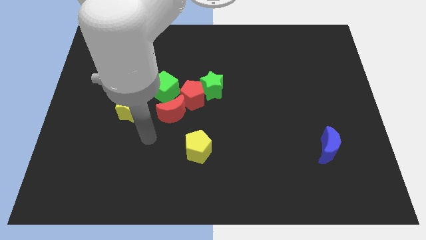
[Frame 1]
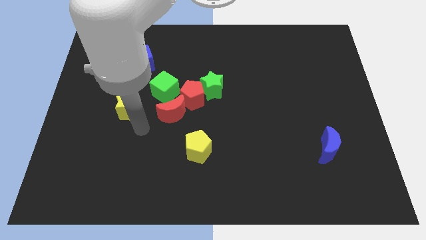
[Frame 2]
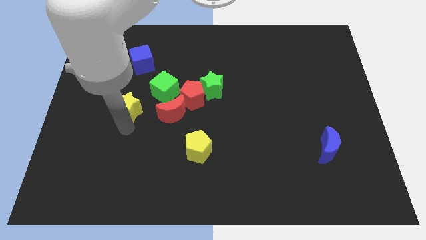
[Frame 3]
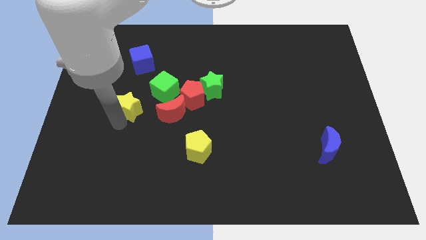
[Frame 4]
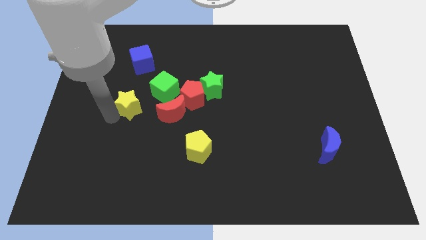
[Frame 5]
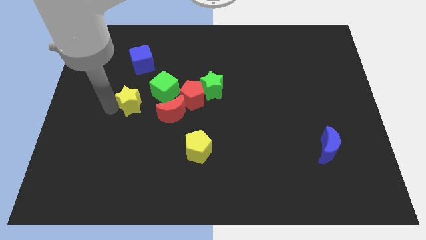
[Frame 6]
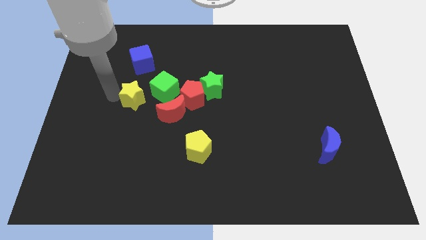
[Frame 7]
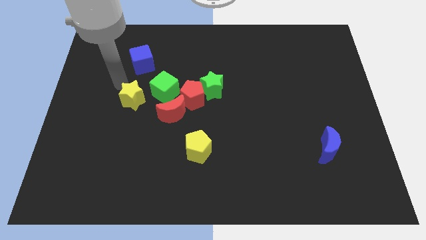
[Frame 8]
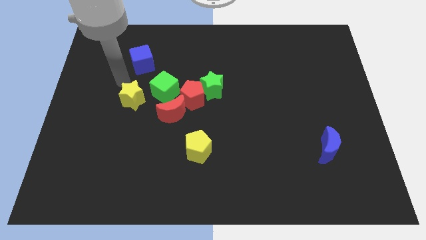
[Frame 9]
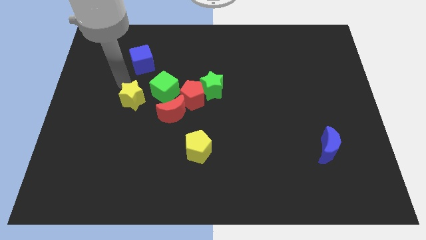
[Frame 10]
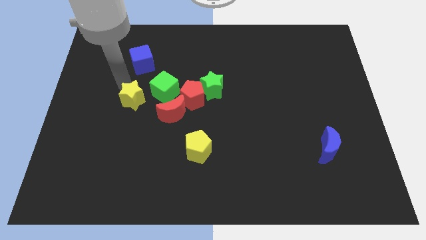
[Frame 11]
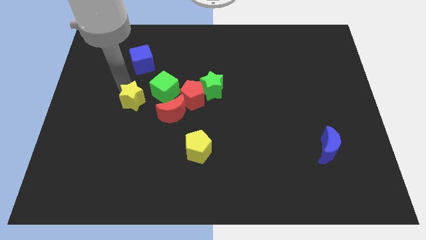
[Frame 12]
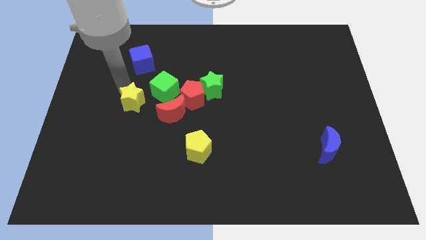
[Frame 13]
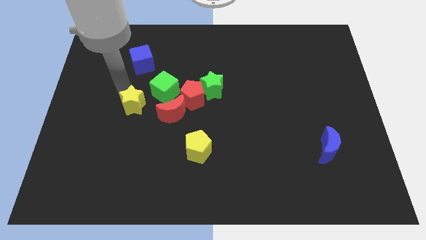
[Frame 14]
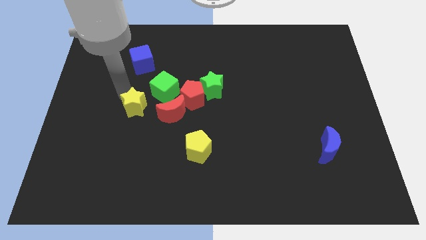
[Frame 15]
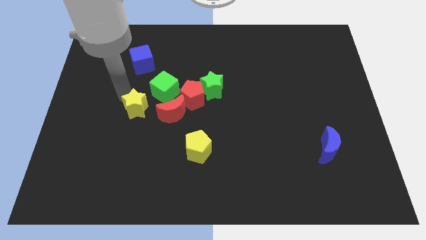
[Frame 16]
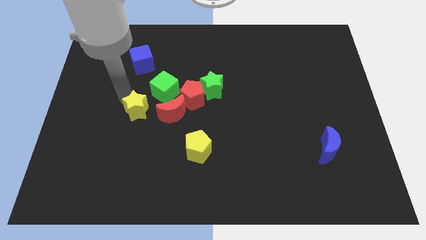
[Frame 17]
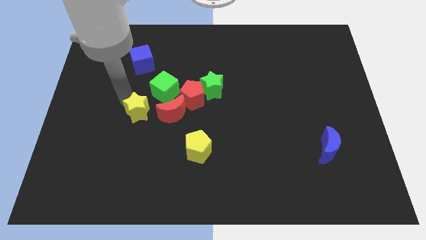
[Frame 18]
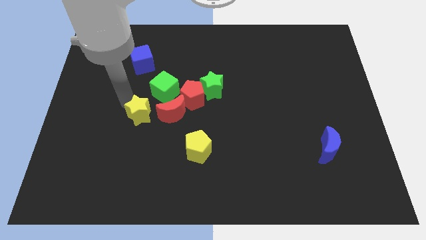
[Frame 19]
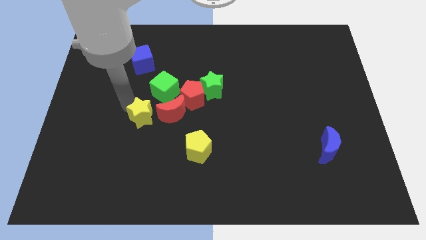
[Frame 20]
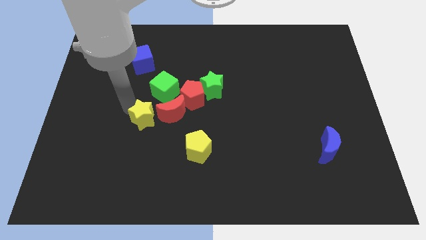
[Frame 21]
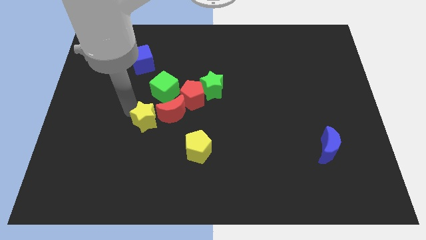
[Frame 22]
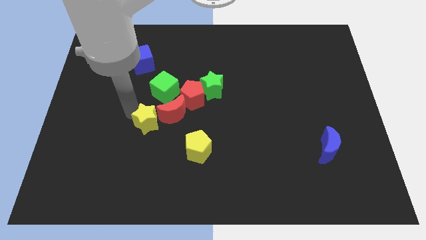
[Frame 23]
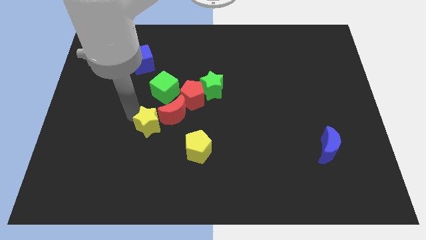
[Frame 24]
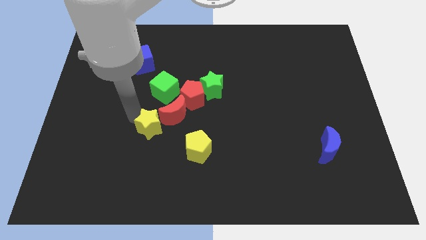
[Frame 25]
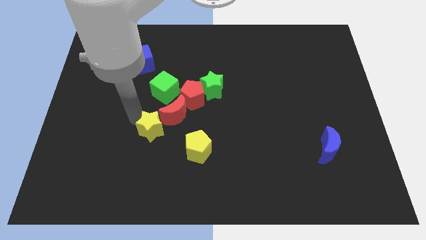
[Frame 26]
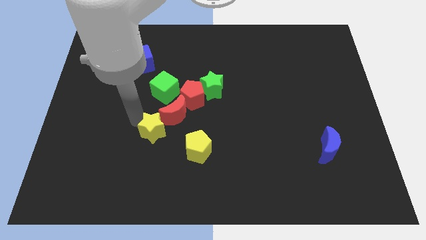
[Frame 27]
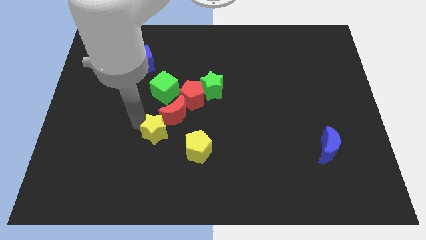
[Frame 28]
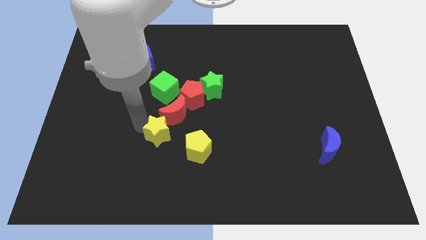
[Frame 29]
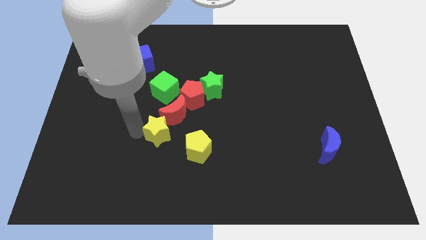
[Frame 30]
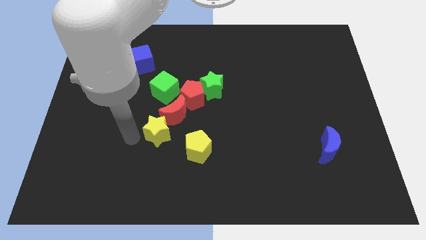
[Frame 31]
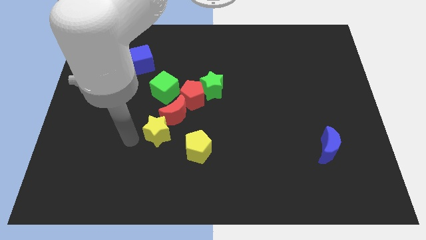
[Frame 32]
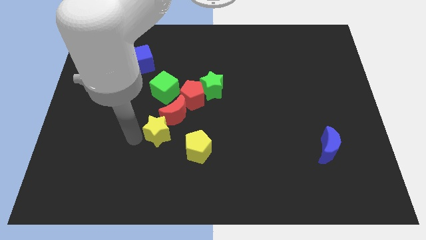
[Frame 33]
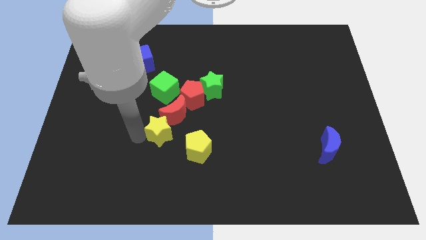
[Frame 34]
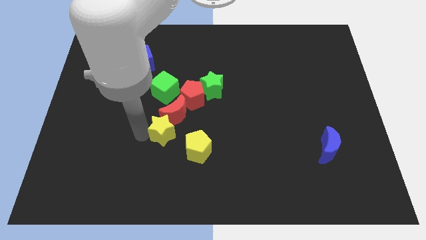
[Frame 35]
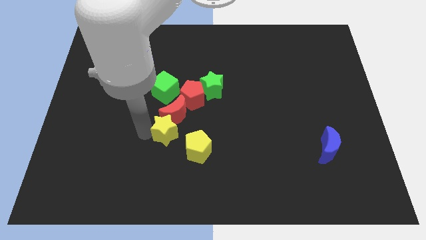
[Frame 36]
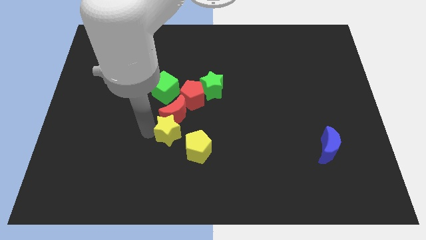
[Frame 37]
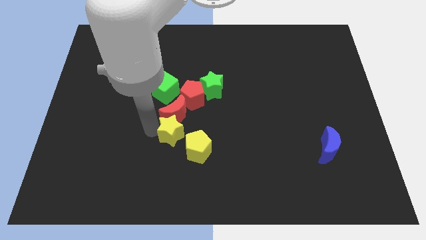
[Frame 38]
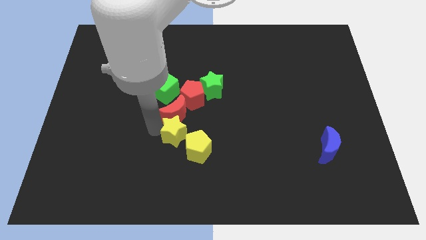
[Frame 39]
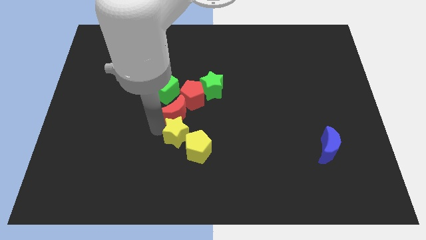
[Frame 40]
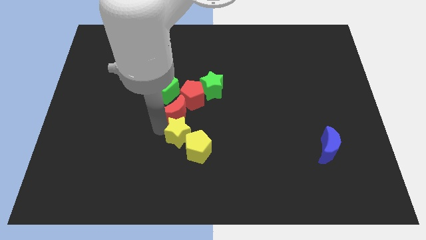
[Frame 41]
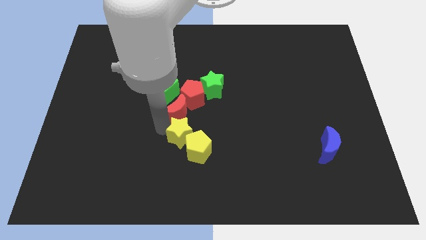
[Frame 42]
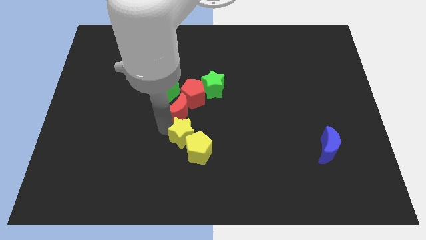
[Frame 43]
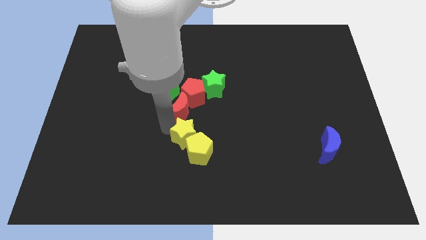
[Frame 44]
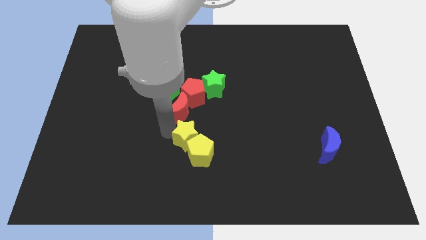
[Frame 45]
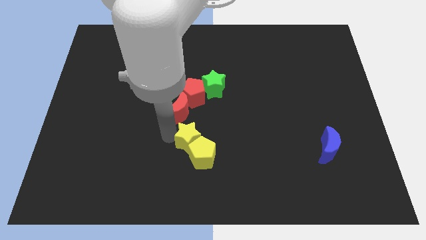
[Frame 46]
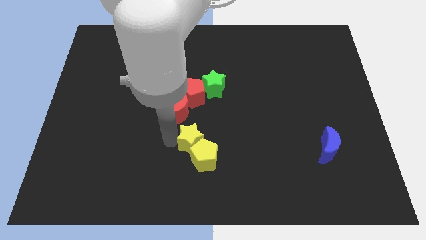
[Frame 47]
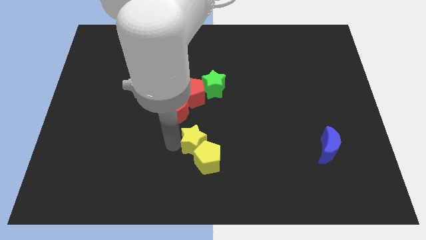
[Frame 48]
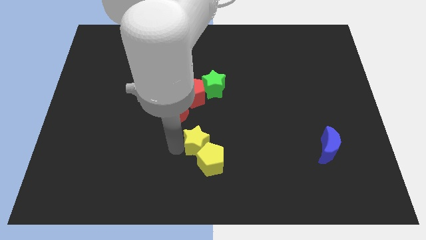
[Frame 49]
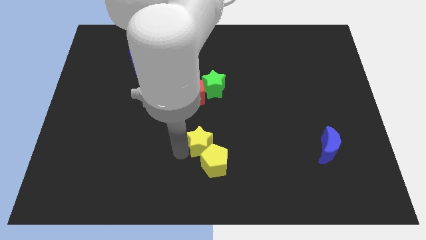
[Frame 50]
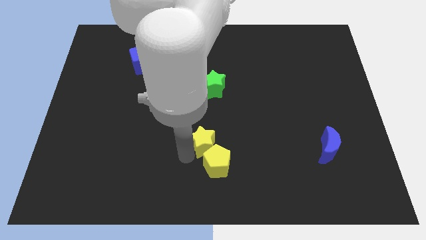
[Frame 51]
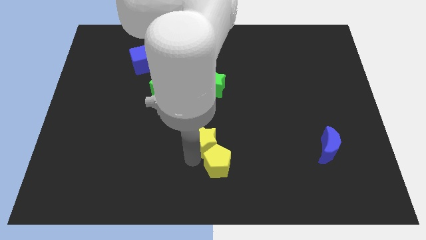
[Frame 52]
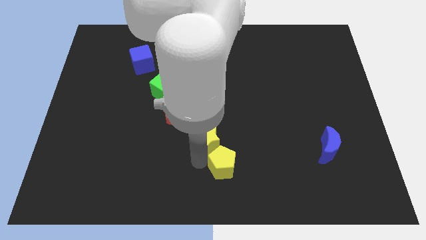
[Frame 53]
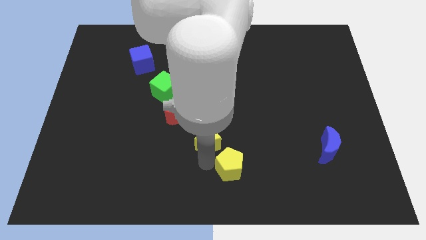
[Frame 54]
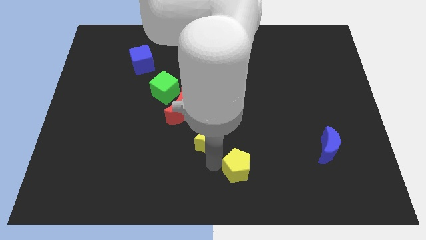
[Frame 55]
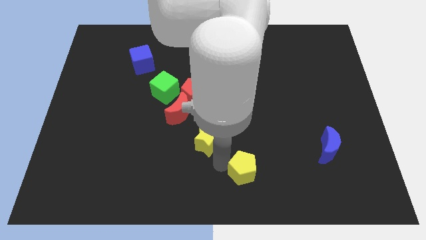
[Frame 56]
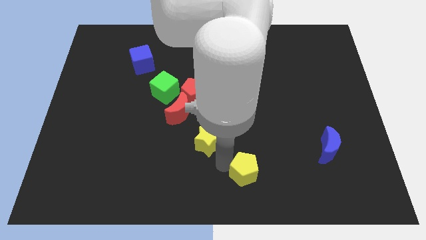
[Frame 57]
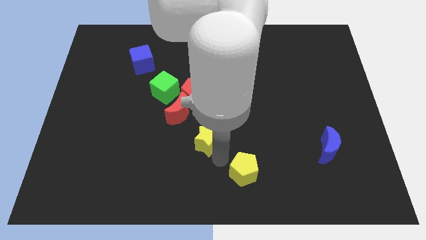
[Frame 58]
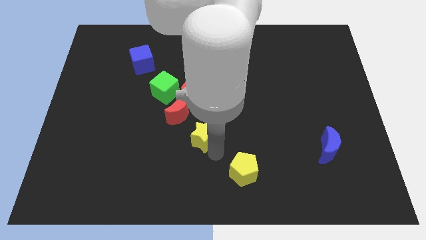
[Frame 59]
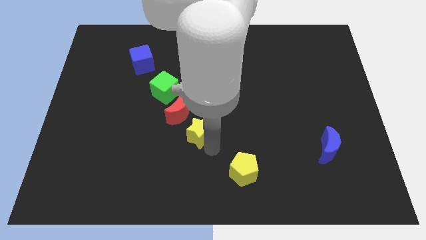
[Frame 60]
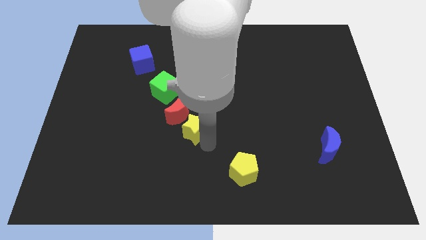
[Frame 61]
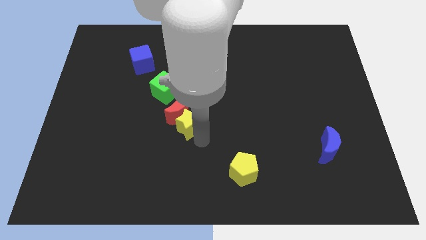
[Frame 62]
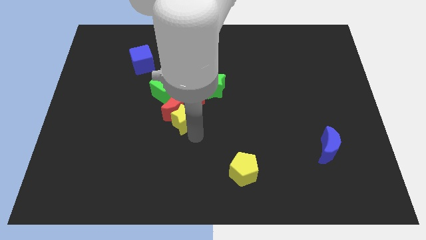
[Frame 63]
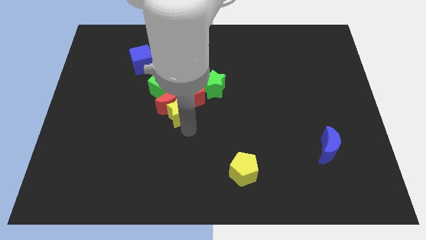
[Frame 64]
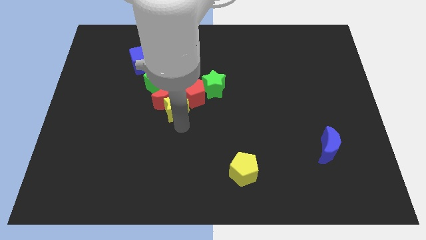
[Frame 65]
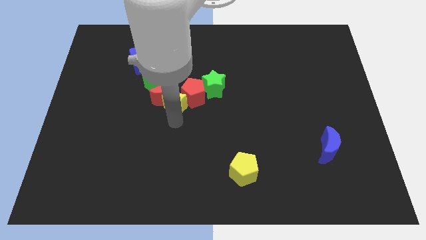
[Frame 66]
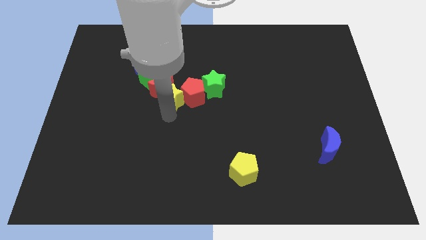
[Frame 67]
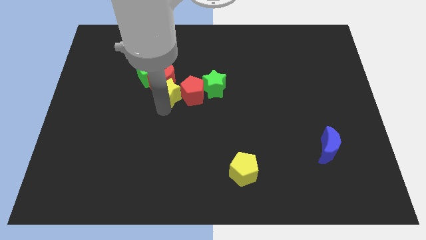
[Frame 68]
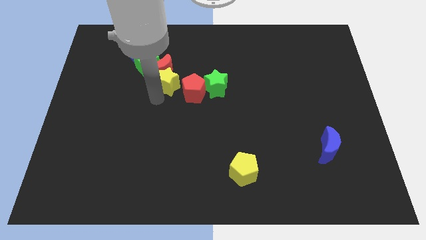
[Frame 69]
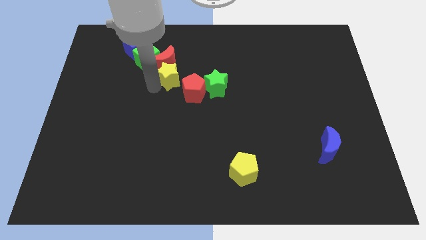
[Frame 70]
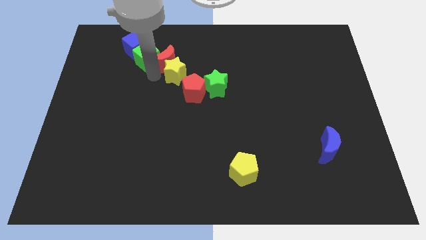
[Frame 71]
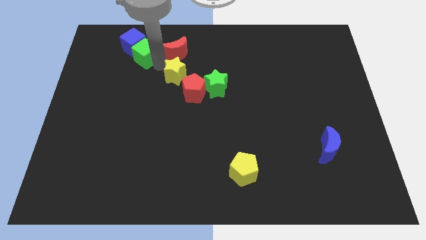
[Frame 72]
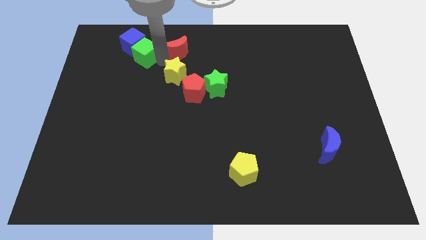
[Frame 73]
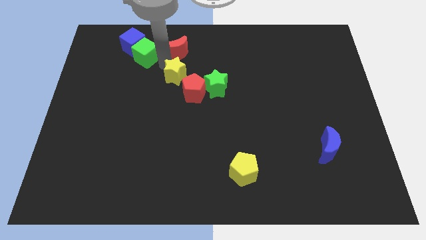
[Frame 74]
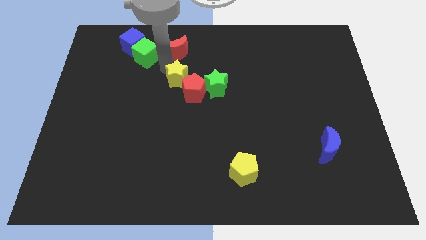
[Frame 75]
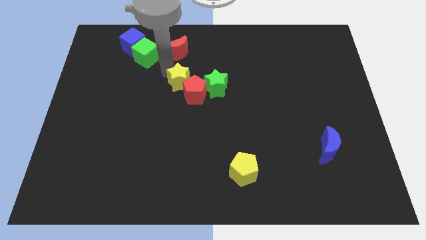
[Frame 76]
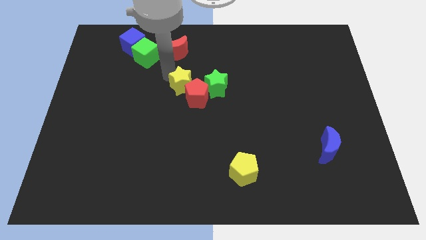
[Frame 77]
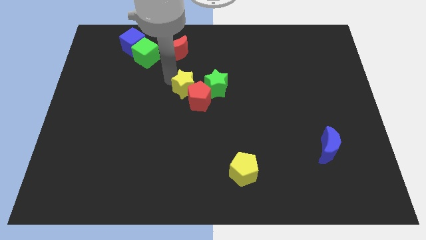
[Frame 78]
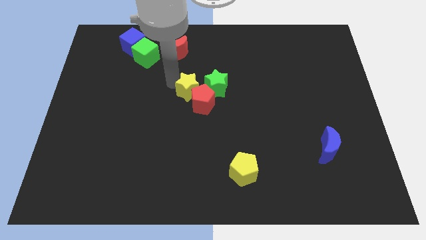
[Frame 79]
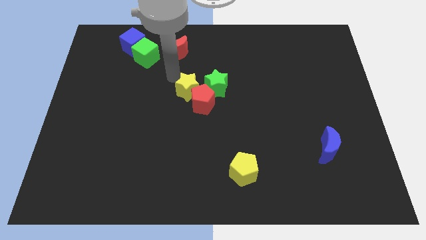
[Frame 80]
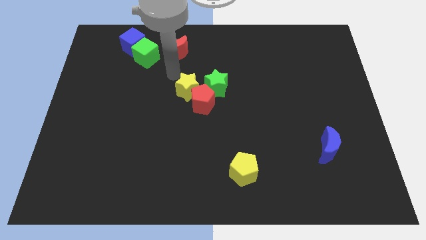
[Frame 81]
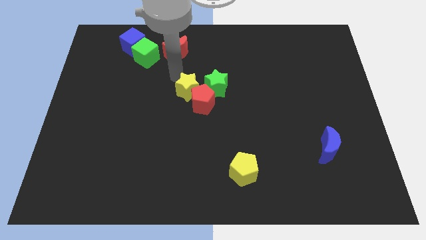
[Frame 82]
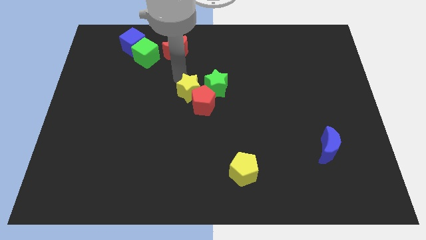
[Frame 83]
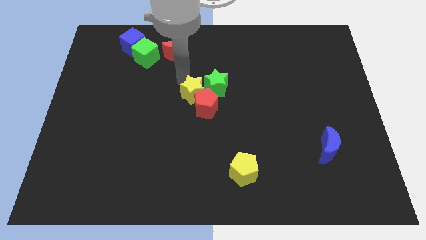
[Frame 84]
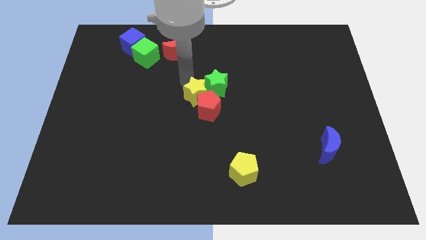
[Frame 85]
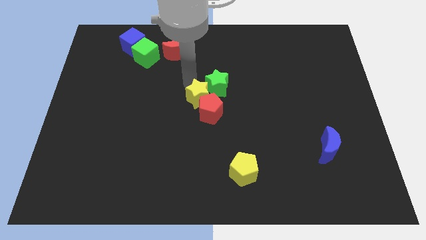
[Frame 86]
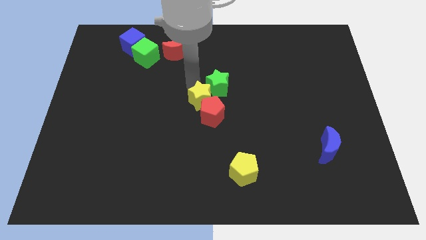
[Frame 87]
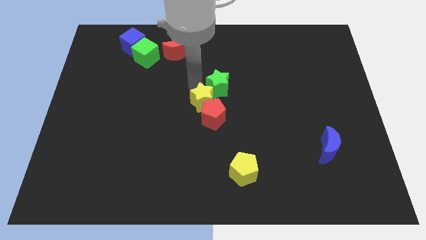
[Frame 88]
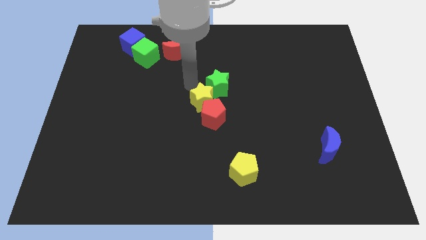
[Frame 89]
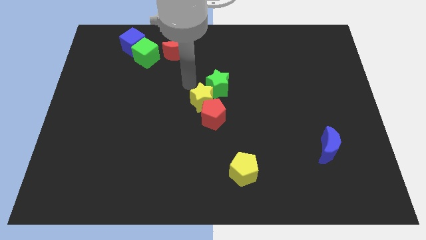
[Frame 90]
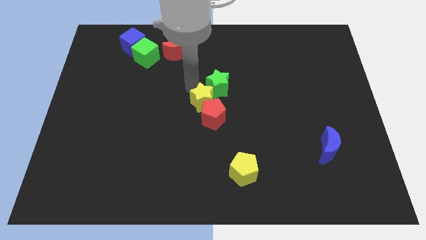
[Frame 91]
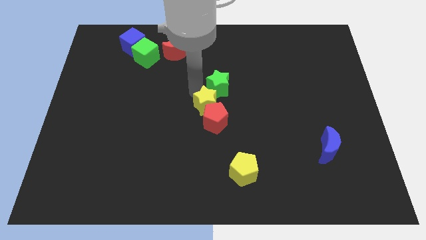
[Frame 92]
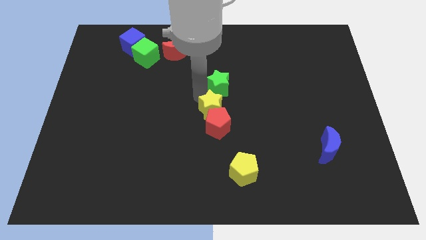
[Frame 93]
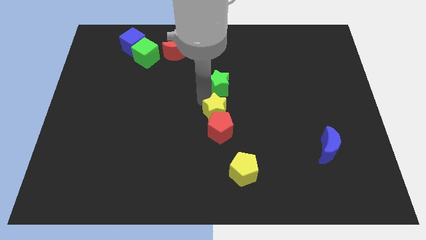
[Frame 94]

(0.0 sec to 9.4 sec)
push the yellow star right
